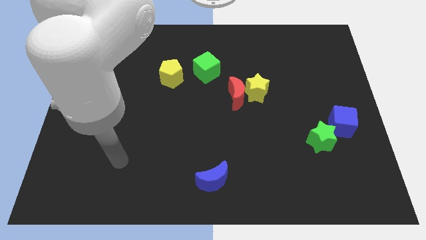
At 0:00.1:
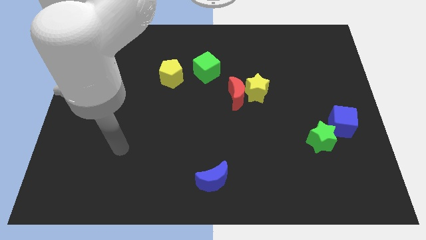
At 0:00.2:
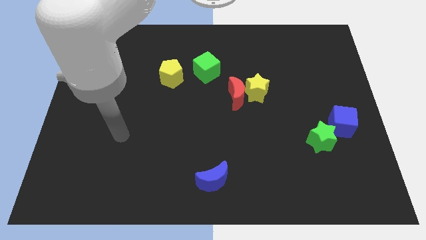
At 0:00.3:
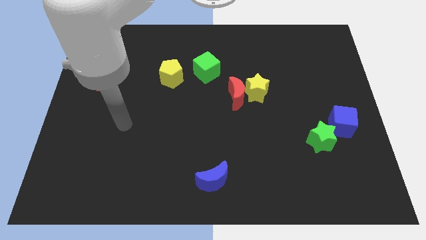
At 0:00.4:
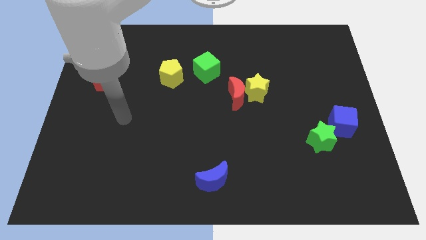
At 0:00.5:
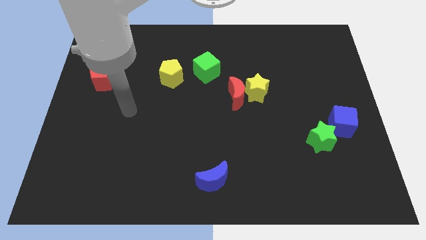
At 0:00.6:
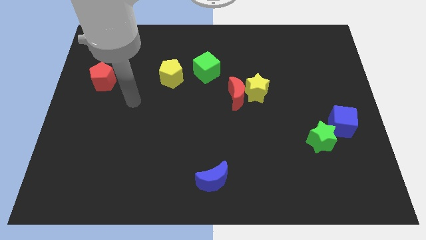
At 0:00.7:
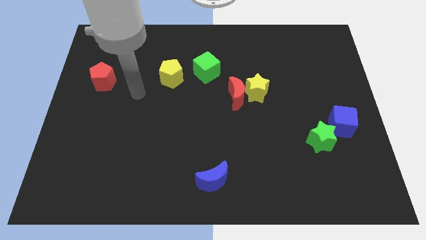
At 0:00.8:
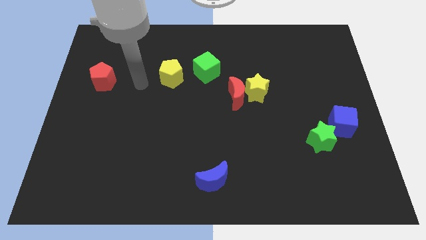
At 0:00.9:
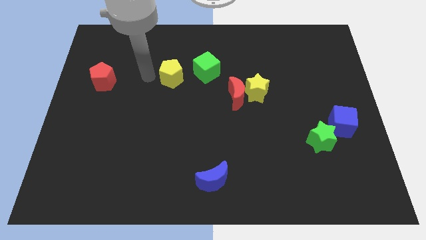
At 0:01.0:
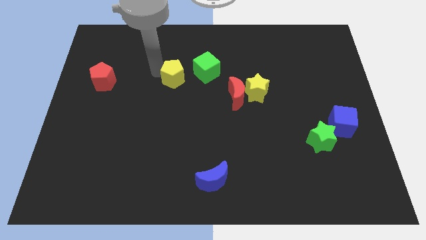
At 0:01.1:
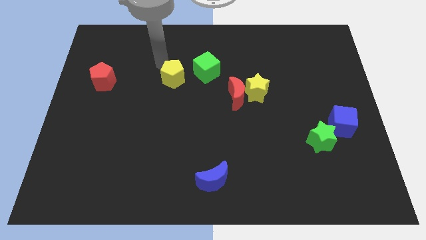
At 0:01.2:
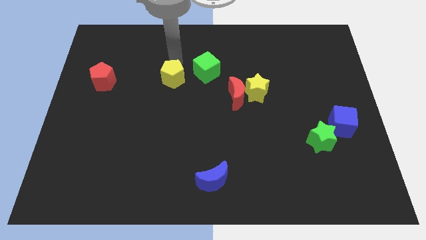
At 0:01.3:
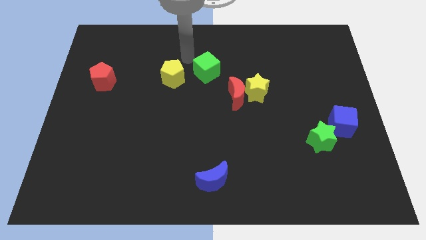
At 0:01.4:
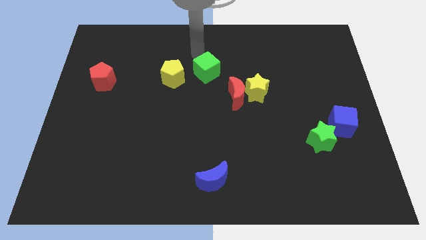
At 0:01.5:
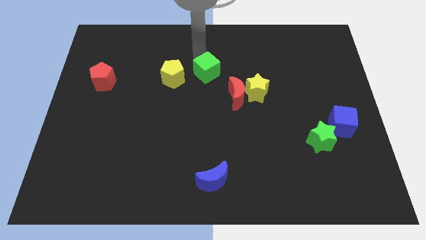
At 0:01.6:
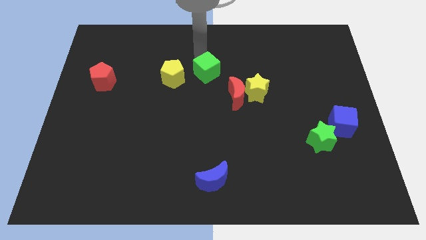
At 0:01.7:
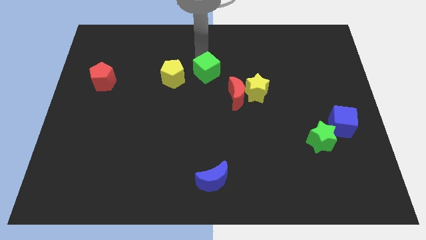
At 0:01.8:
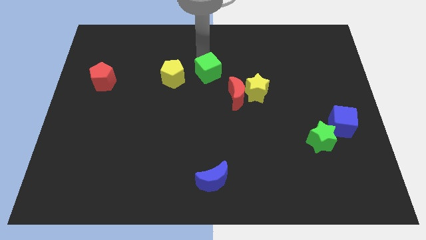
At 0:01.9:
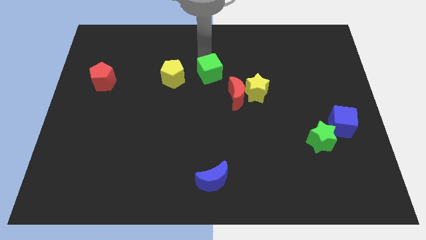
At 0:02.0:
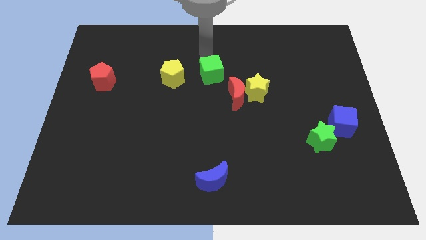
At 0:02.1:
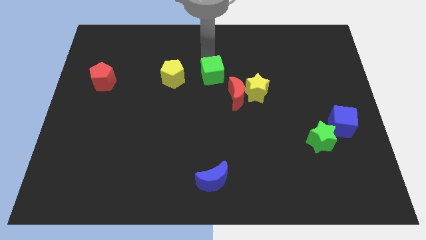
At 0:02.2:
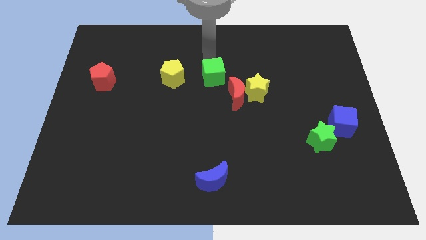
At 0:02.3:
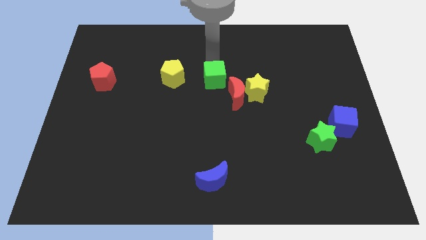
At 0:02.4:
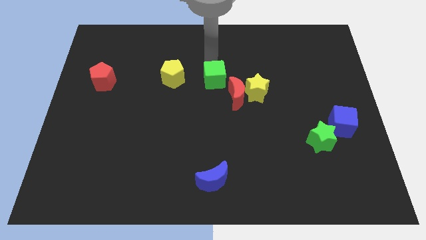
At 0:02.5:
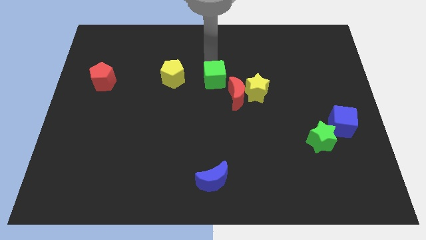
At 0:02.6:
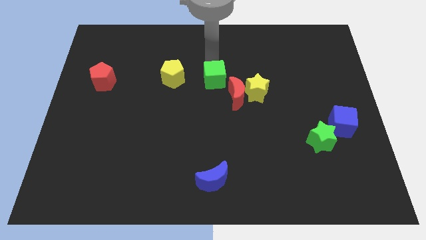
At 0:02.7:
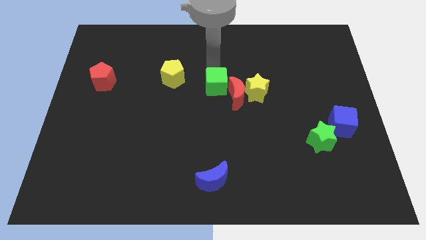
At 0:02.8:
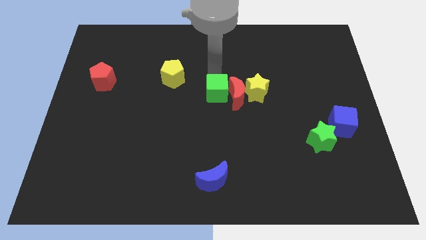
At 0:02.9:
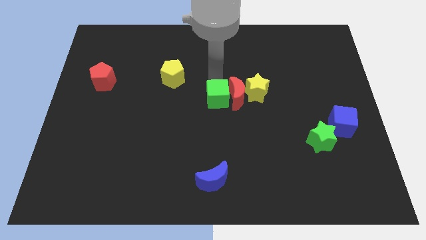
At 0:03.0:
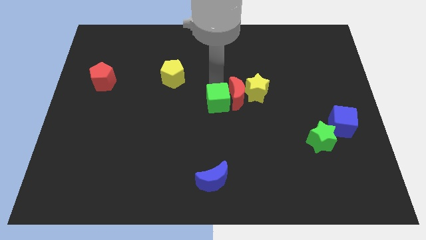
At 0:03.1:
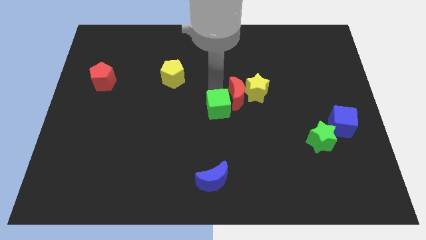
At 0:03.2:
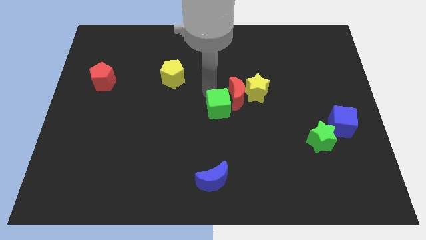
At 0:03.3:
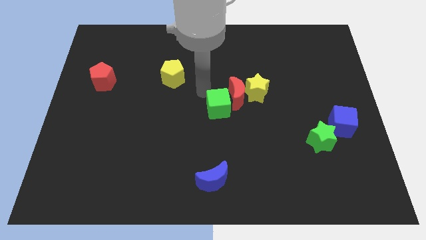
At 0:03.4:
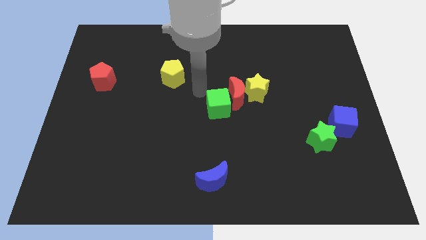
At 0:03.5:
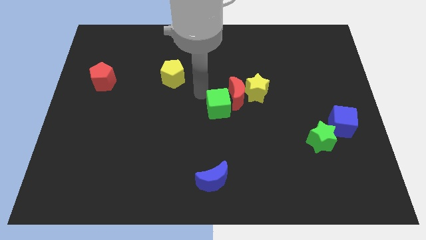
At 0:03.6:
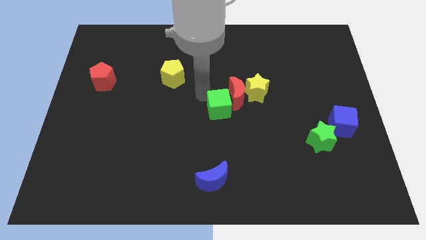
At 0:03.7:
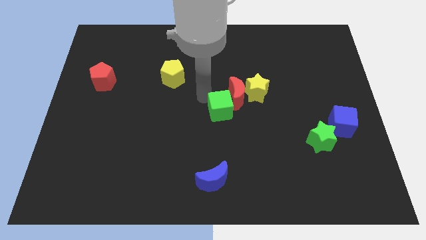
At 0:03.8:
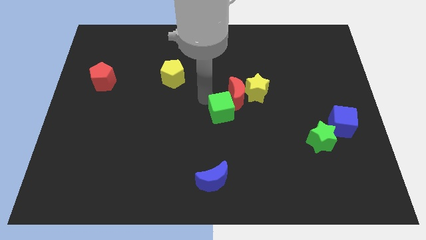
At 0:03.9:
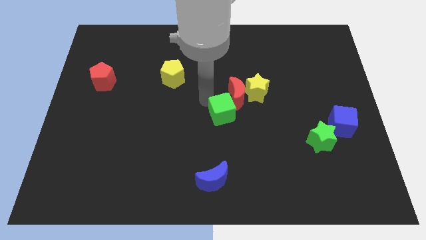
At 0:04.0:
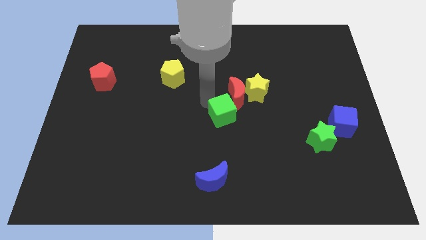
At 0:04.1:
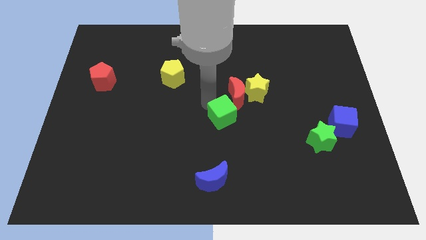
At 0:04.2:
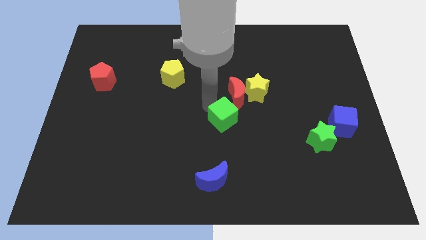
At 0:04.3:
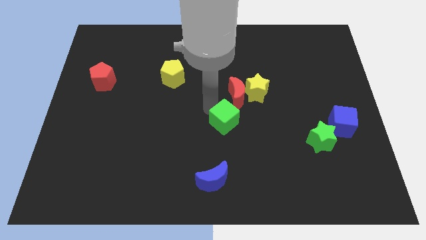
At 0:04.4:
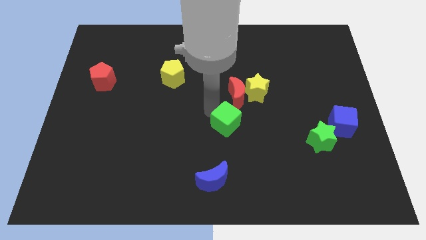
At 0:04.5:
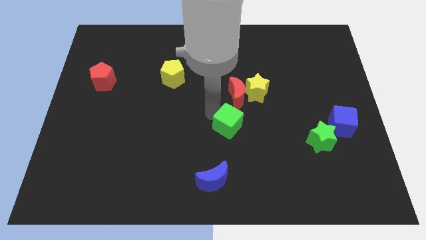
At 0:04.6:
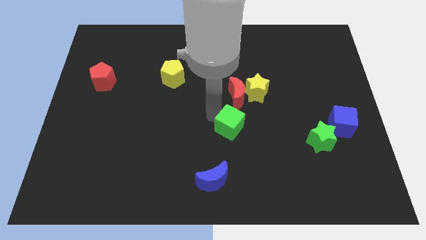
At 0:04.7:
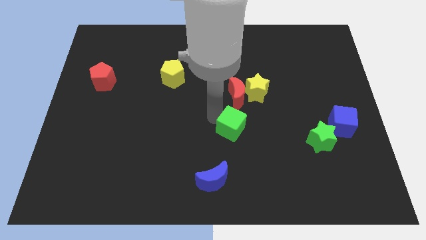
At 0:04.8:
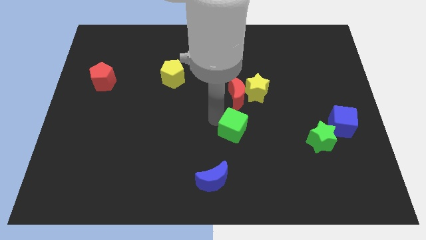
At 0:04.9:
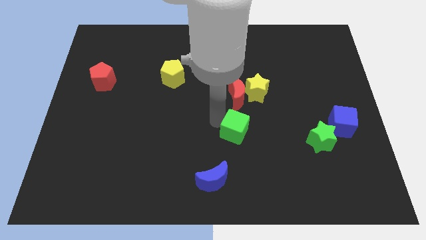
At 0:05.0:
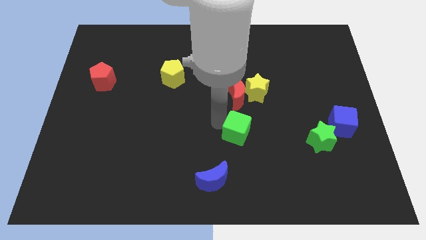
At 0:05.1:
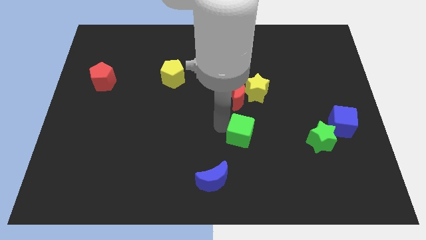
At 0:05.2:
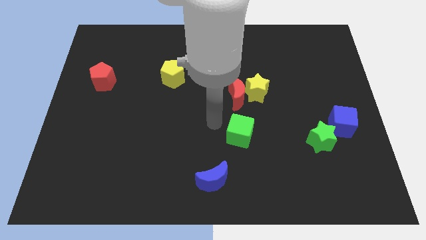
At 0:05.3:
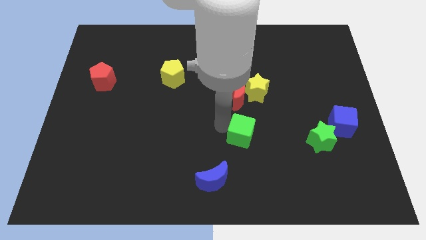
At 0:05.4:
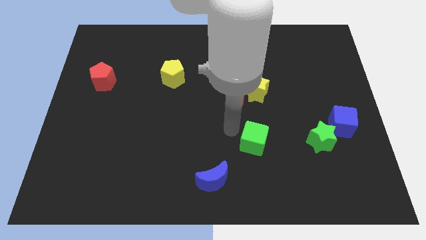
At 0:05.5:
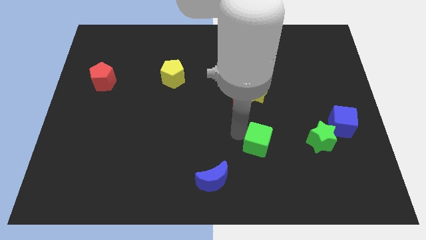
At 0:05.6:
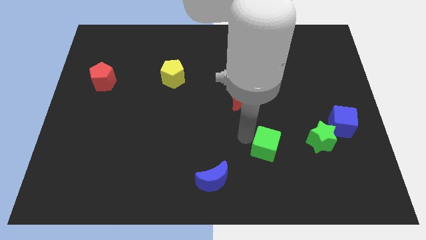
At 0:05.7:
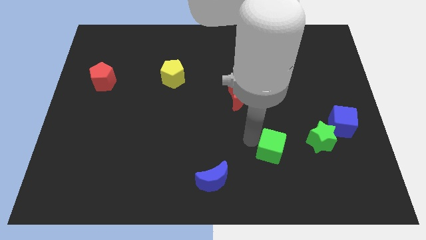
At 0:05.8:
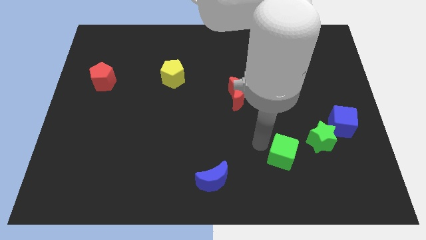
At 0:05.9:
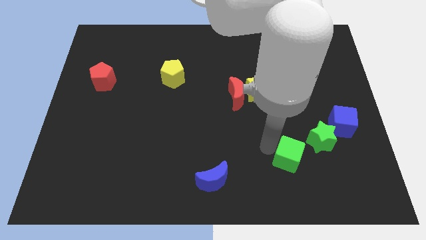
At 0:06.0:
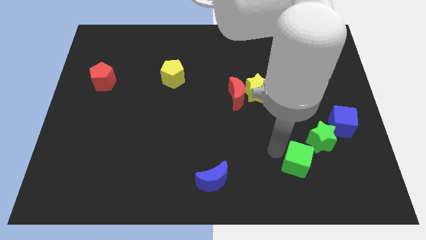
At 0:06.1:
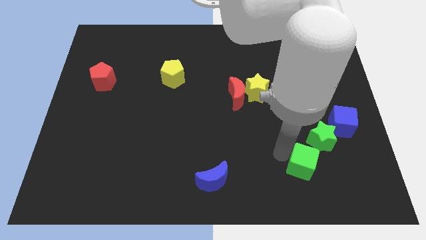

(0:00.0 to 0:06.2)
move the green cube below the green star

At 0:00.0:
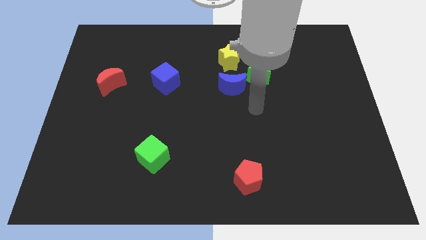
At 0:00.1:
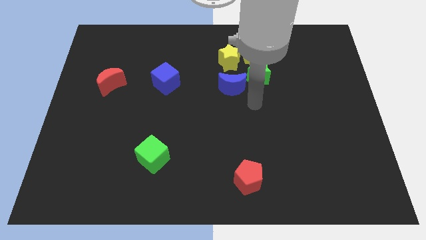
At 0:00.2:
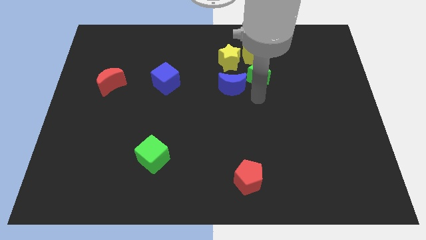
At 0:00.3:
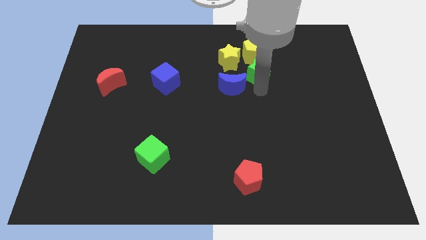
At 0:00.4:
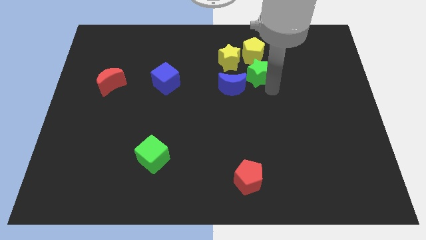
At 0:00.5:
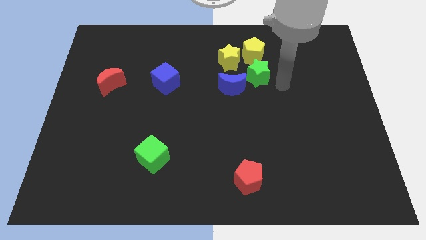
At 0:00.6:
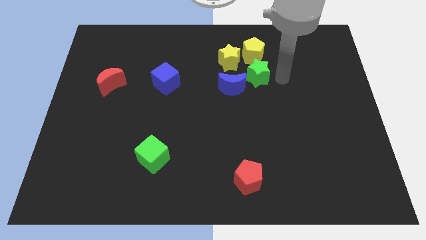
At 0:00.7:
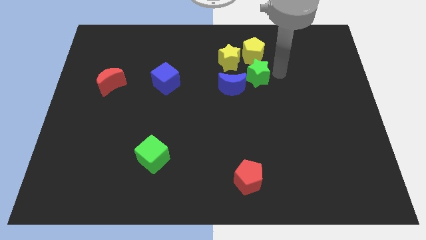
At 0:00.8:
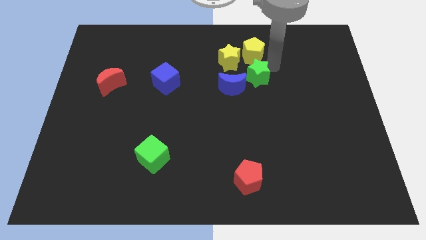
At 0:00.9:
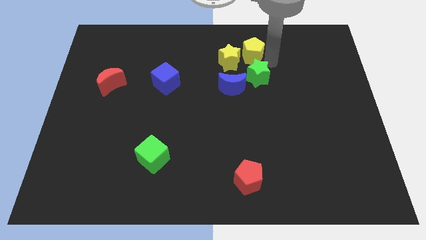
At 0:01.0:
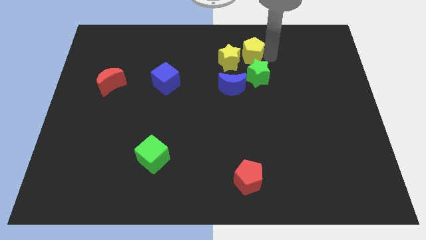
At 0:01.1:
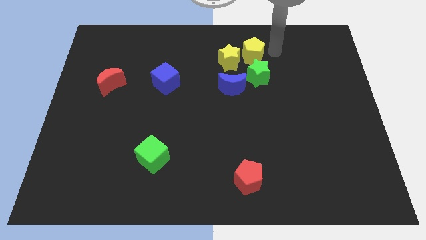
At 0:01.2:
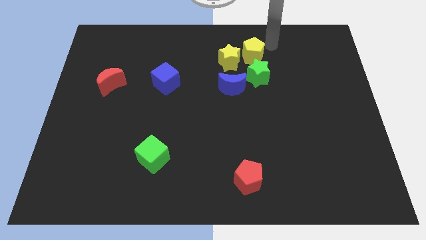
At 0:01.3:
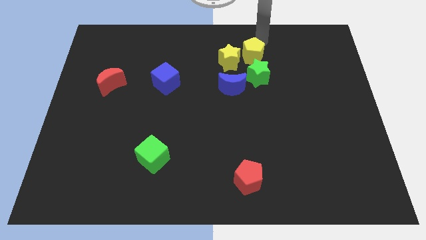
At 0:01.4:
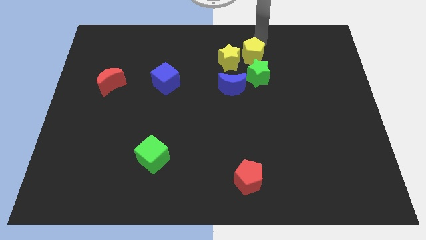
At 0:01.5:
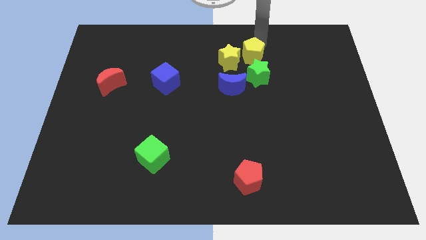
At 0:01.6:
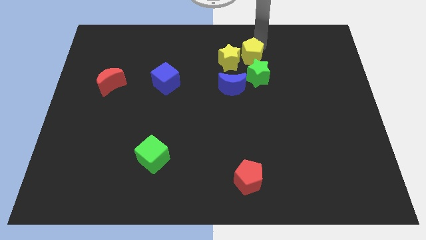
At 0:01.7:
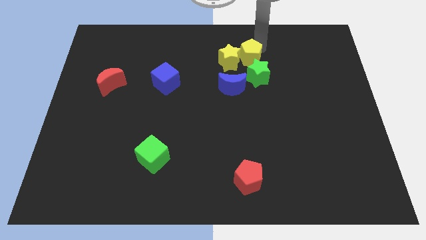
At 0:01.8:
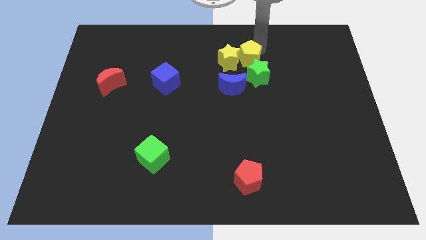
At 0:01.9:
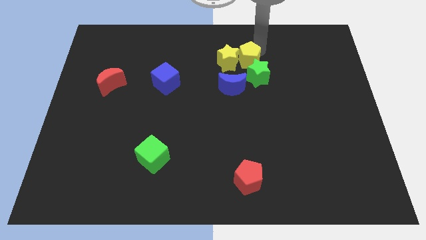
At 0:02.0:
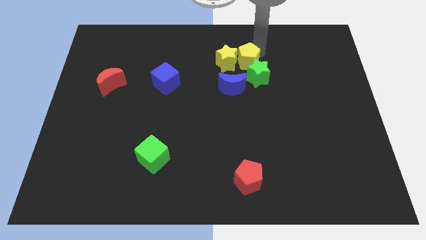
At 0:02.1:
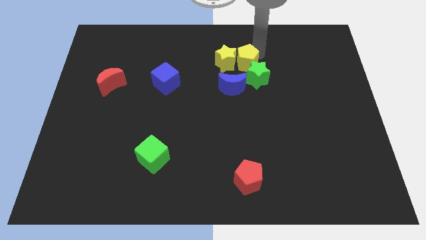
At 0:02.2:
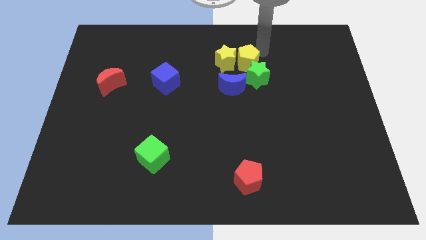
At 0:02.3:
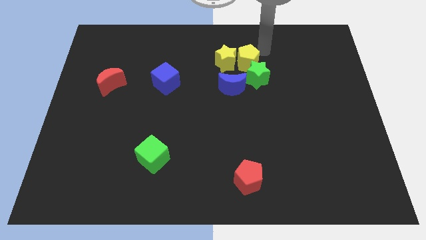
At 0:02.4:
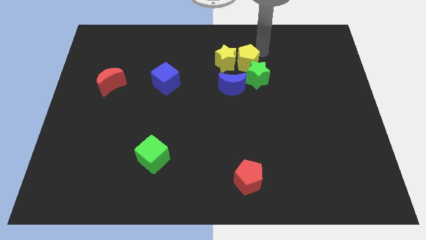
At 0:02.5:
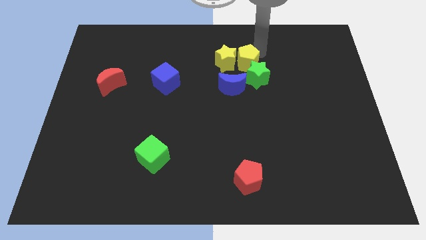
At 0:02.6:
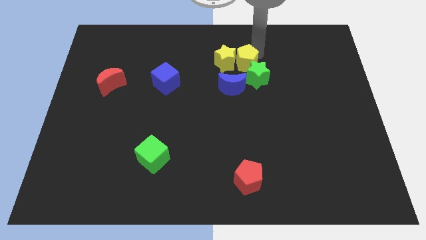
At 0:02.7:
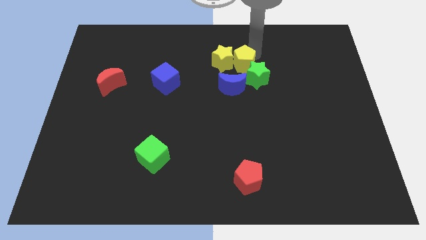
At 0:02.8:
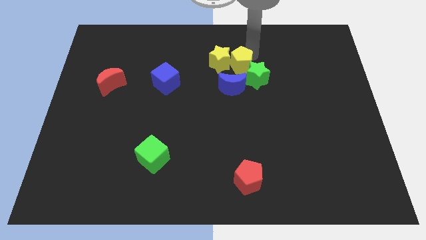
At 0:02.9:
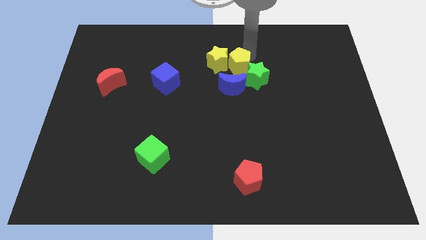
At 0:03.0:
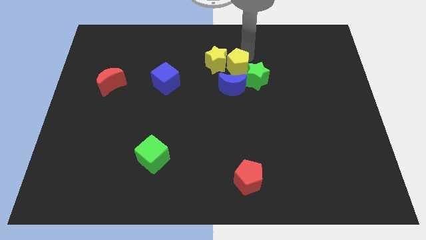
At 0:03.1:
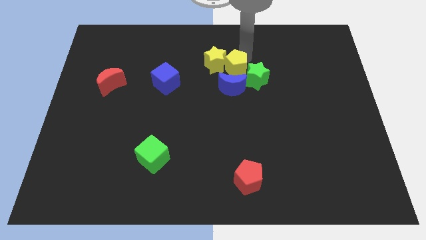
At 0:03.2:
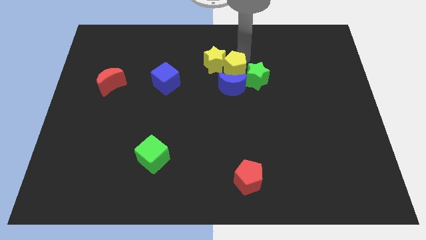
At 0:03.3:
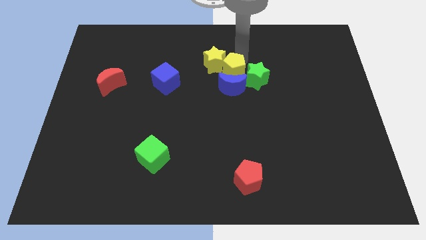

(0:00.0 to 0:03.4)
put the yellow pentagon diagonally up and to the left of the blue moon
